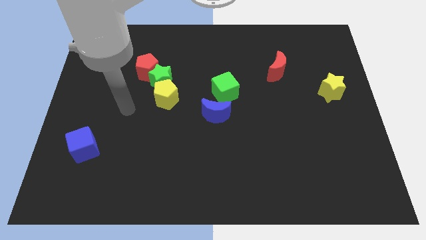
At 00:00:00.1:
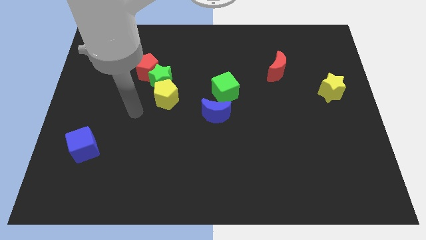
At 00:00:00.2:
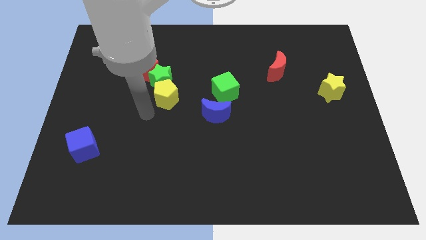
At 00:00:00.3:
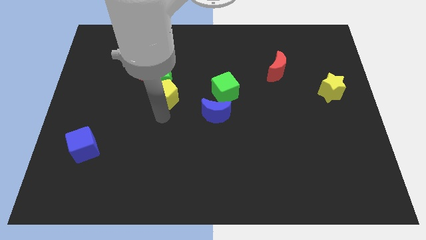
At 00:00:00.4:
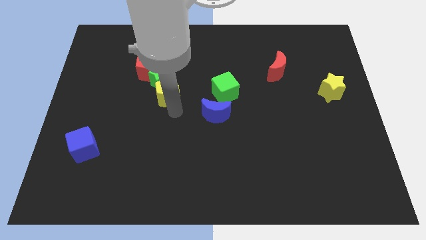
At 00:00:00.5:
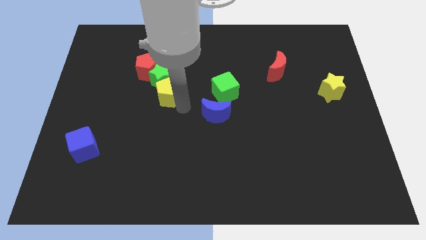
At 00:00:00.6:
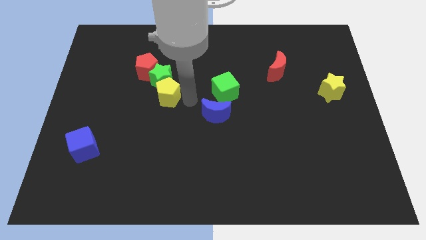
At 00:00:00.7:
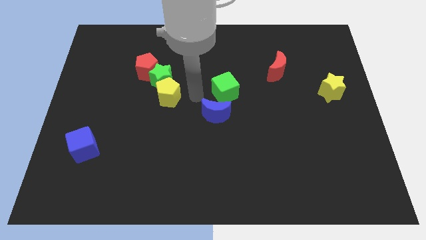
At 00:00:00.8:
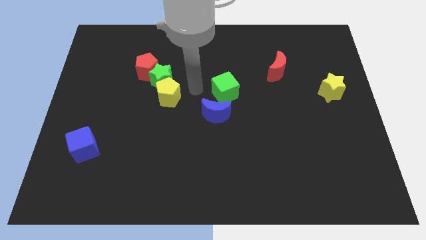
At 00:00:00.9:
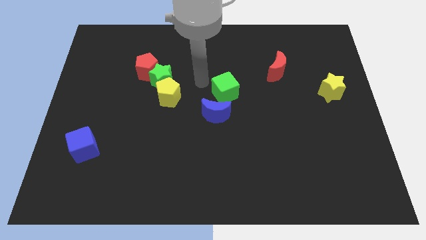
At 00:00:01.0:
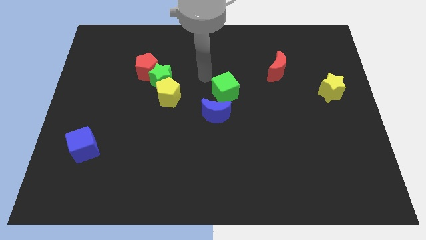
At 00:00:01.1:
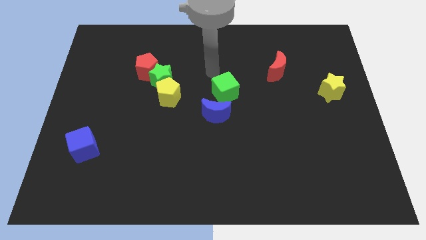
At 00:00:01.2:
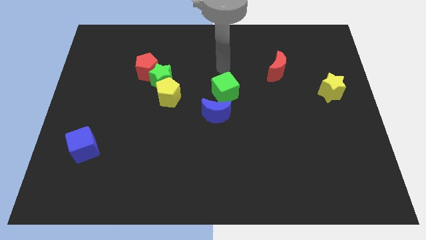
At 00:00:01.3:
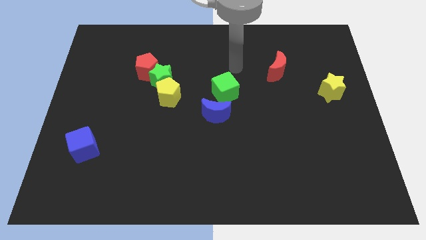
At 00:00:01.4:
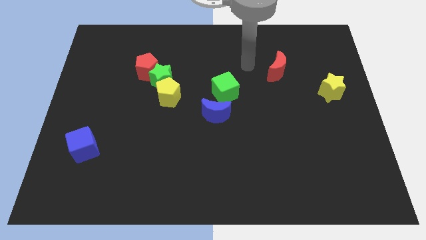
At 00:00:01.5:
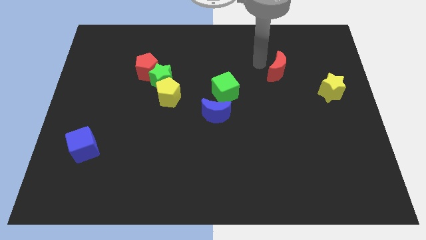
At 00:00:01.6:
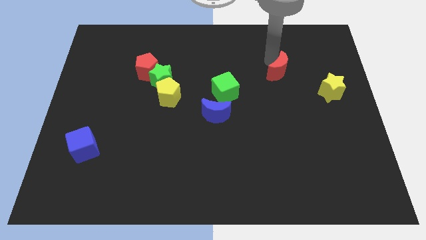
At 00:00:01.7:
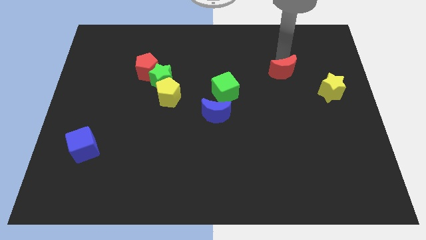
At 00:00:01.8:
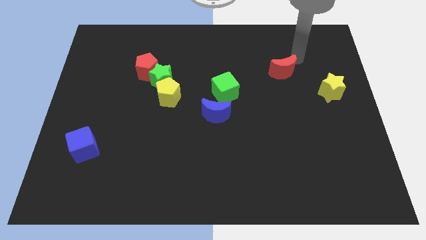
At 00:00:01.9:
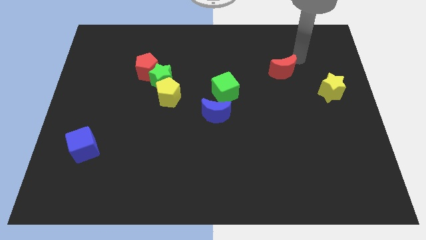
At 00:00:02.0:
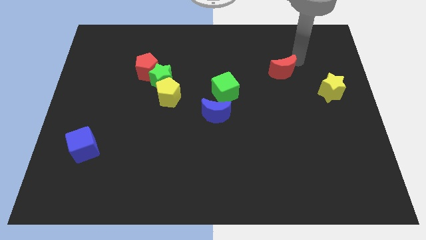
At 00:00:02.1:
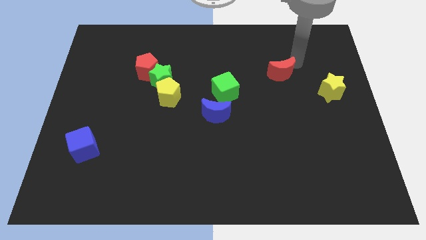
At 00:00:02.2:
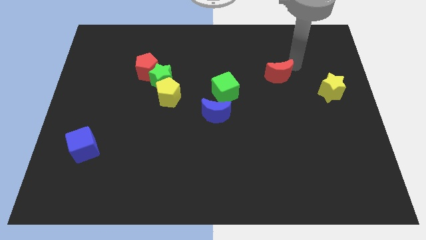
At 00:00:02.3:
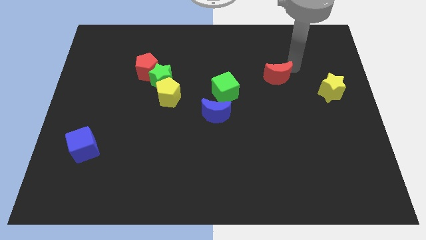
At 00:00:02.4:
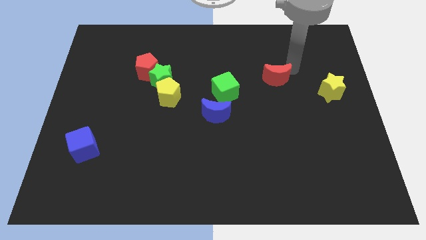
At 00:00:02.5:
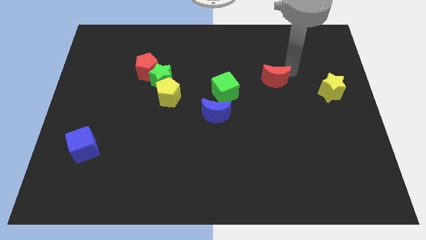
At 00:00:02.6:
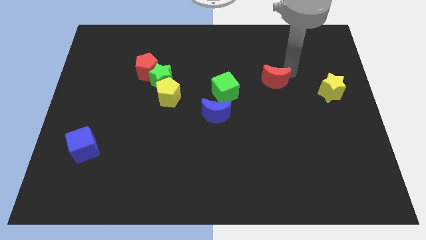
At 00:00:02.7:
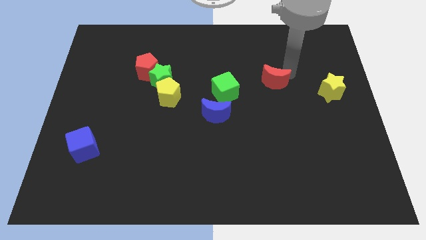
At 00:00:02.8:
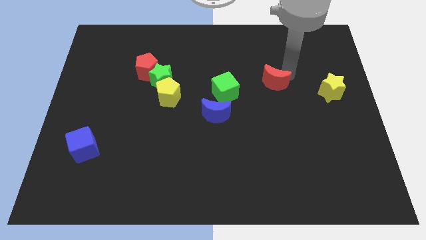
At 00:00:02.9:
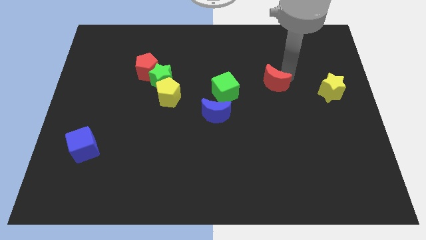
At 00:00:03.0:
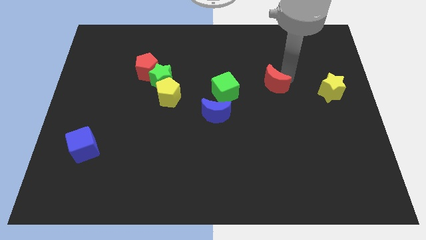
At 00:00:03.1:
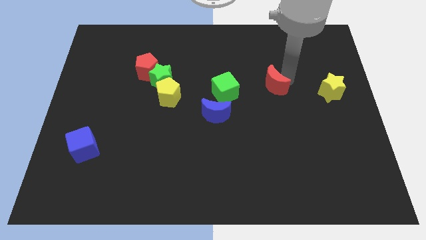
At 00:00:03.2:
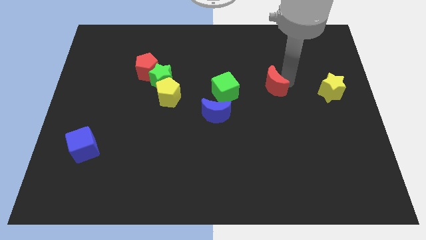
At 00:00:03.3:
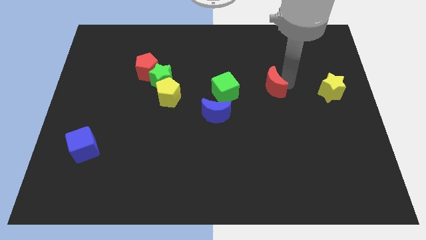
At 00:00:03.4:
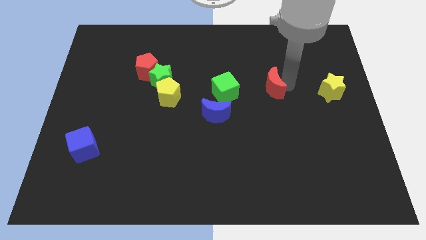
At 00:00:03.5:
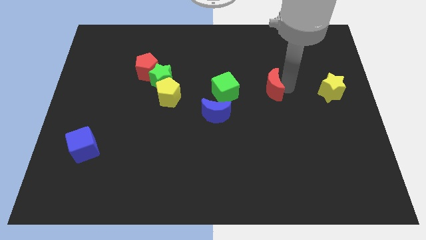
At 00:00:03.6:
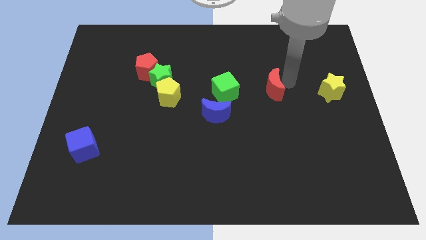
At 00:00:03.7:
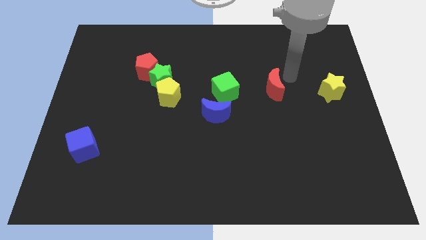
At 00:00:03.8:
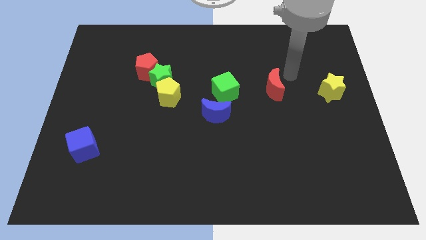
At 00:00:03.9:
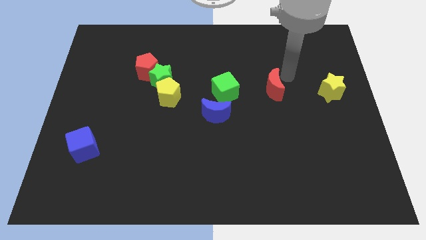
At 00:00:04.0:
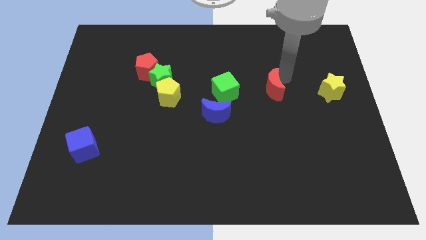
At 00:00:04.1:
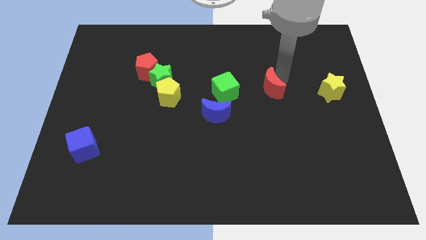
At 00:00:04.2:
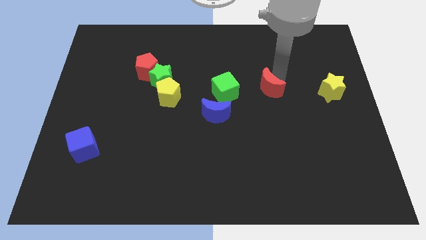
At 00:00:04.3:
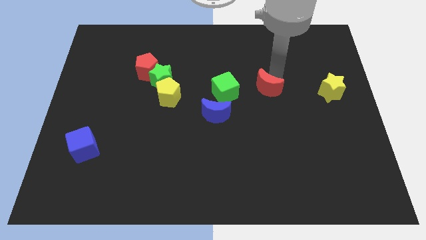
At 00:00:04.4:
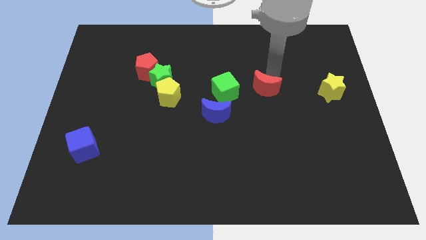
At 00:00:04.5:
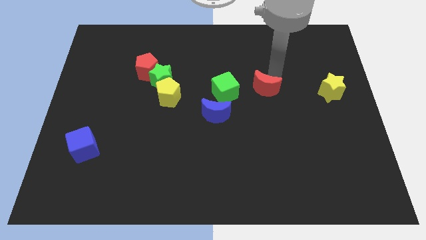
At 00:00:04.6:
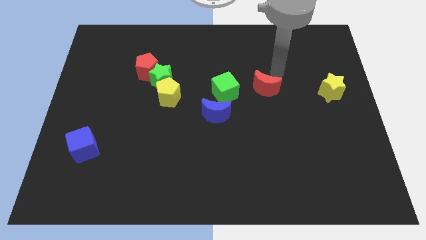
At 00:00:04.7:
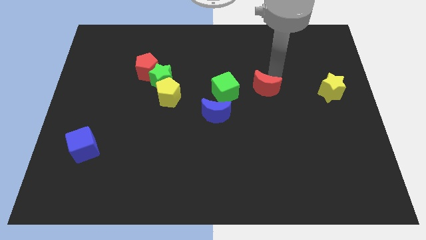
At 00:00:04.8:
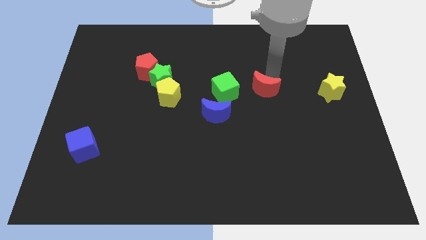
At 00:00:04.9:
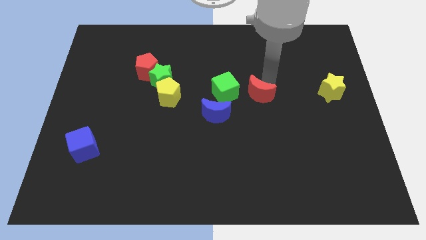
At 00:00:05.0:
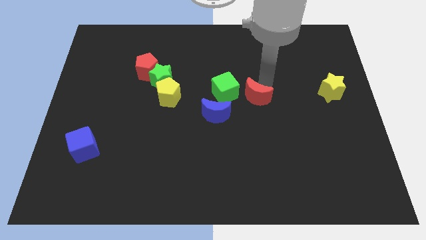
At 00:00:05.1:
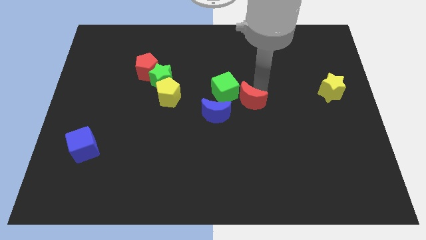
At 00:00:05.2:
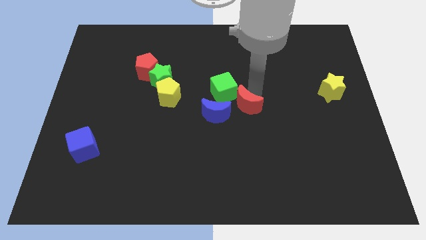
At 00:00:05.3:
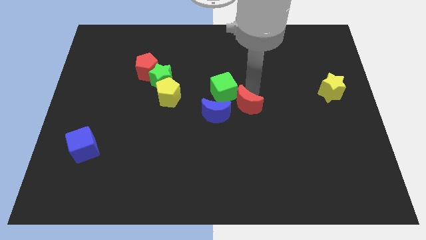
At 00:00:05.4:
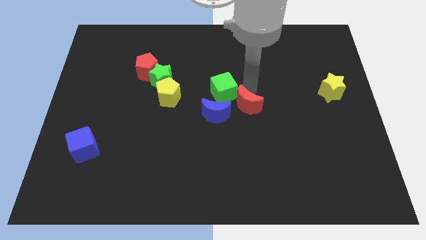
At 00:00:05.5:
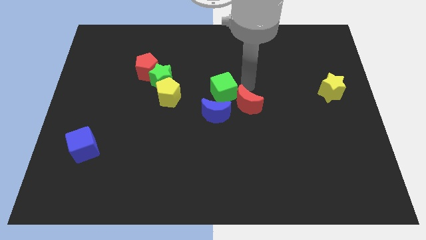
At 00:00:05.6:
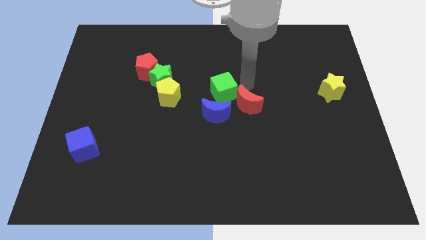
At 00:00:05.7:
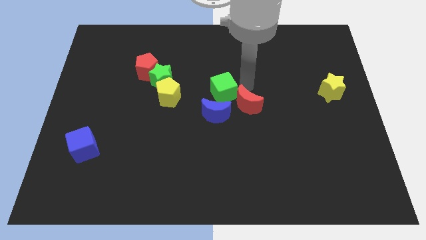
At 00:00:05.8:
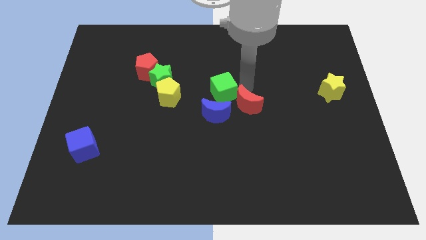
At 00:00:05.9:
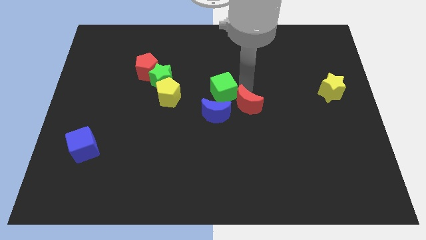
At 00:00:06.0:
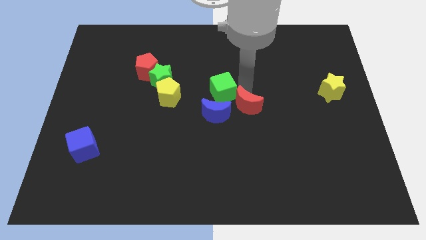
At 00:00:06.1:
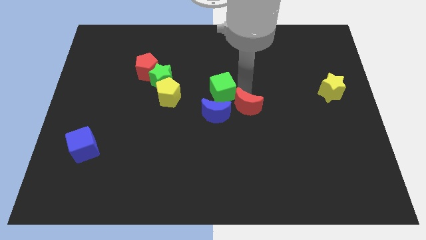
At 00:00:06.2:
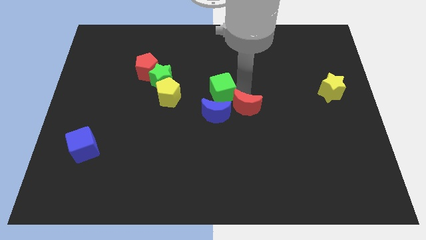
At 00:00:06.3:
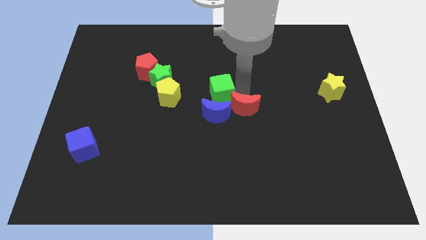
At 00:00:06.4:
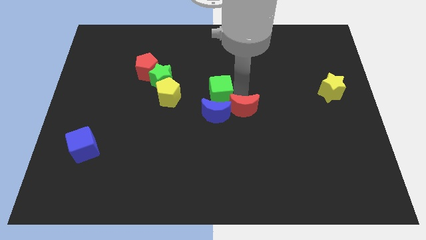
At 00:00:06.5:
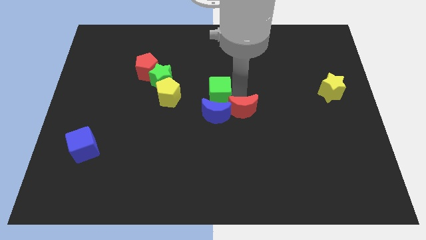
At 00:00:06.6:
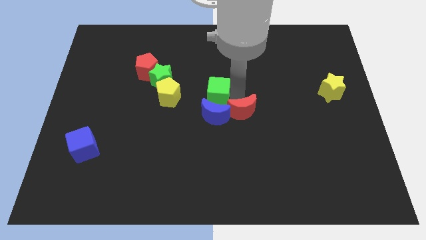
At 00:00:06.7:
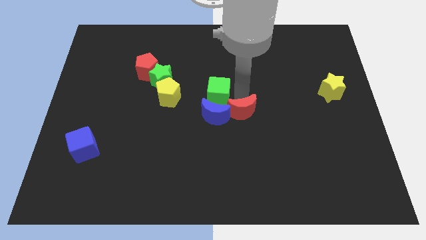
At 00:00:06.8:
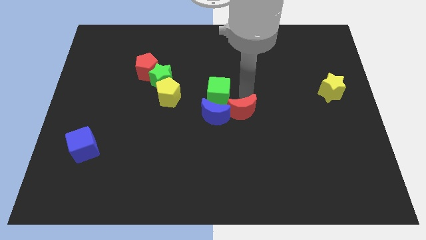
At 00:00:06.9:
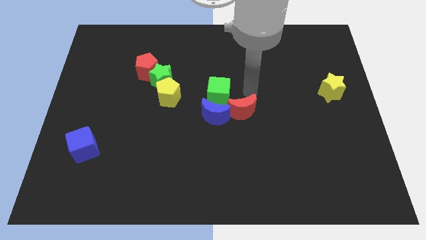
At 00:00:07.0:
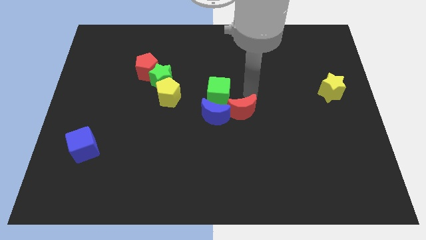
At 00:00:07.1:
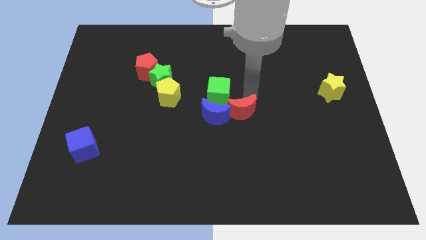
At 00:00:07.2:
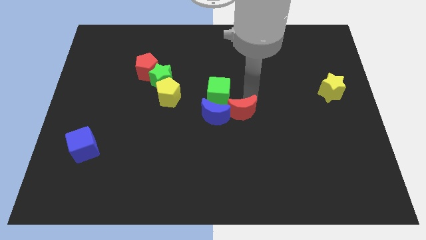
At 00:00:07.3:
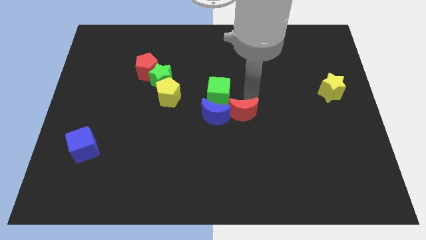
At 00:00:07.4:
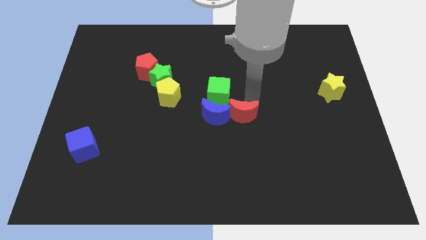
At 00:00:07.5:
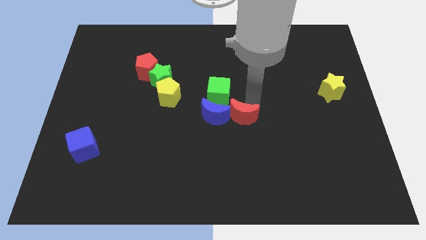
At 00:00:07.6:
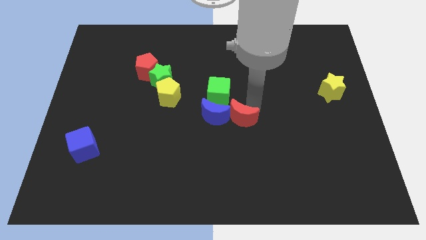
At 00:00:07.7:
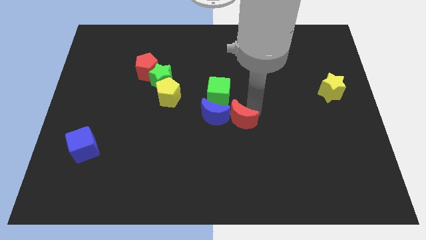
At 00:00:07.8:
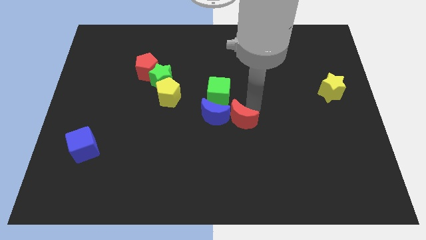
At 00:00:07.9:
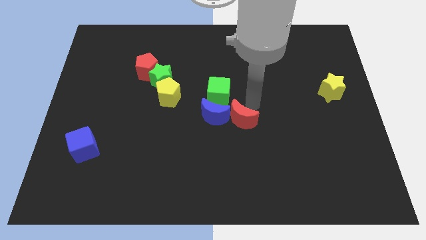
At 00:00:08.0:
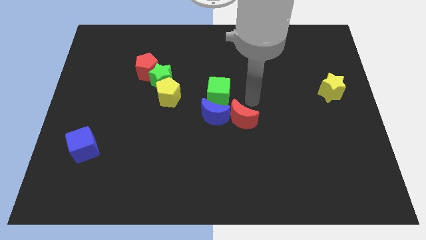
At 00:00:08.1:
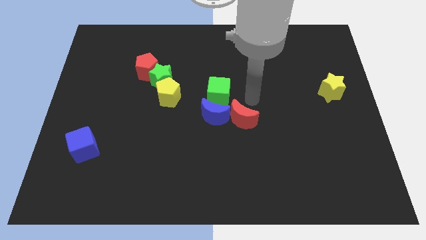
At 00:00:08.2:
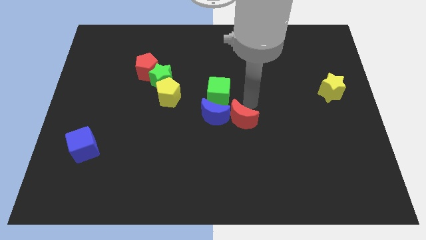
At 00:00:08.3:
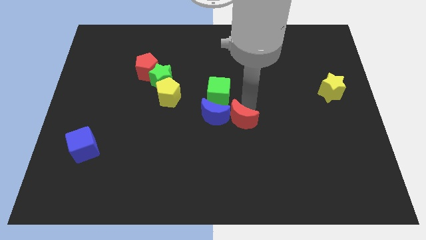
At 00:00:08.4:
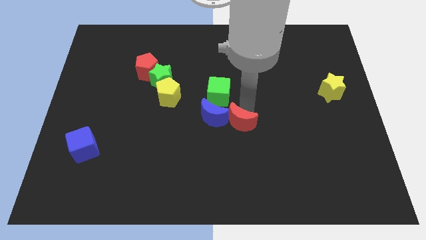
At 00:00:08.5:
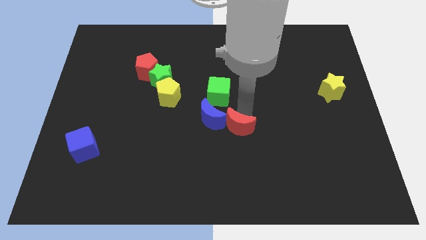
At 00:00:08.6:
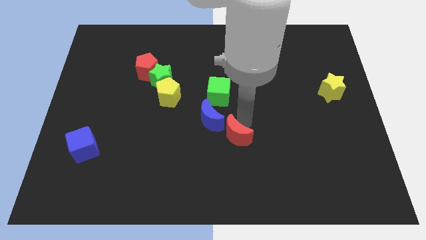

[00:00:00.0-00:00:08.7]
push the red moon diagonally downwards and left
